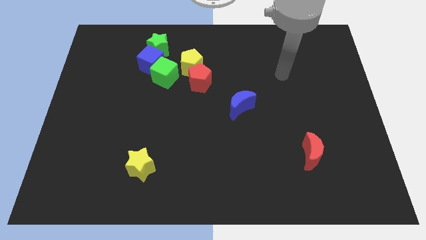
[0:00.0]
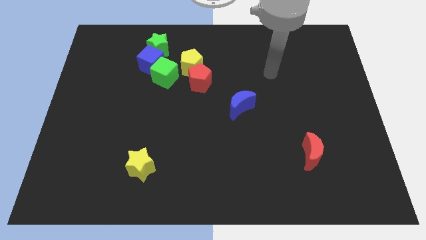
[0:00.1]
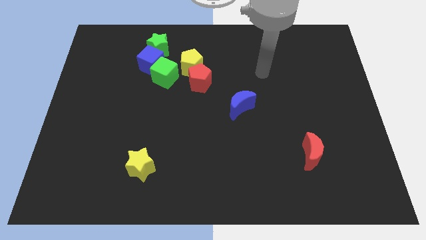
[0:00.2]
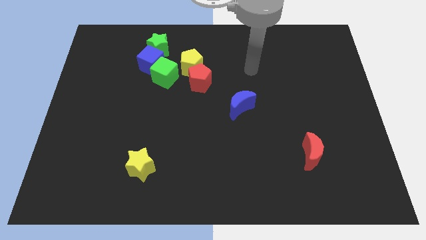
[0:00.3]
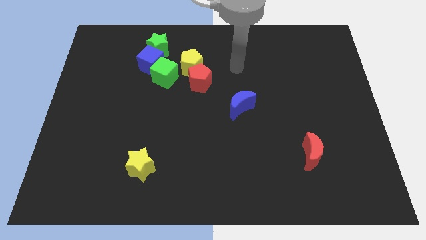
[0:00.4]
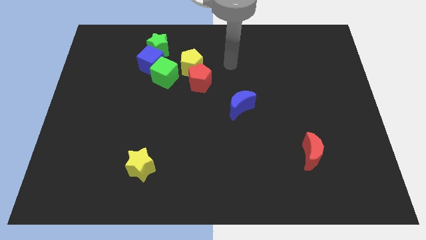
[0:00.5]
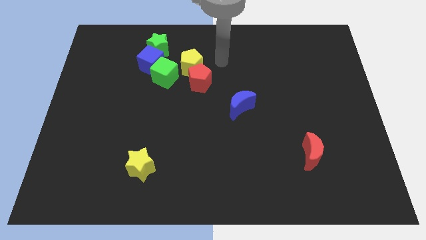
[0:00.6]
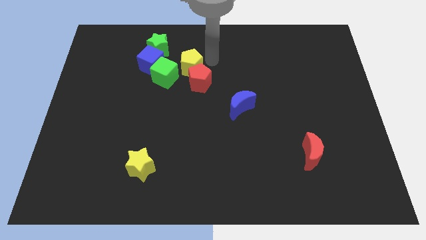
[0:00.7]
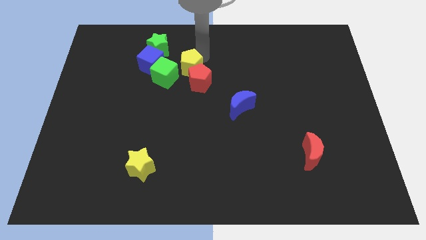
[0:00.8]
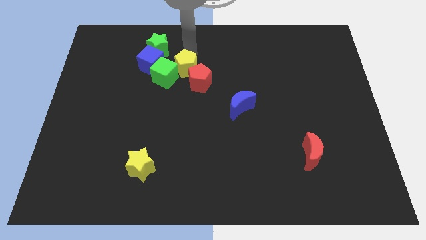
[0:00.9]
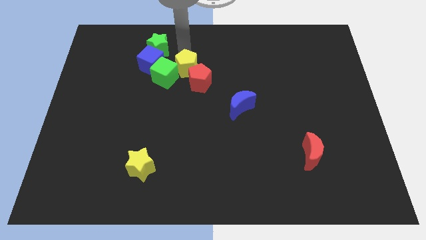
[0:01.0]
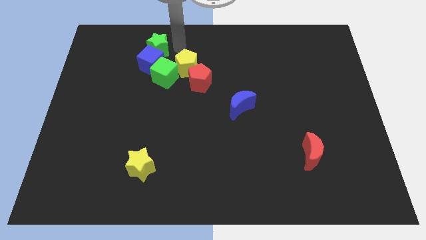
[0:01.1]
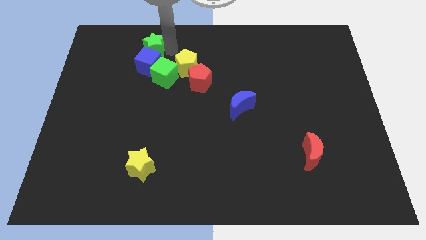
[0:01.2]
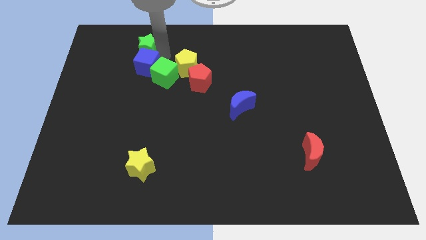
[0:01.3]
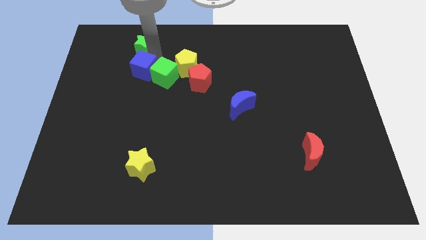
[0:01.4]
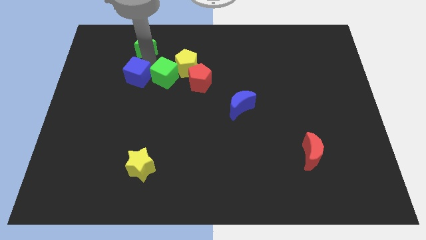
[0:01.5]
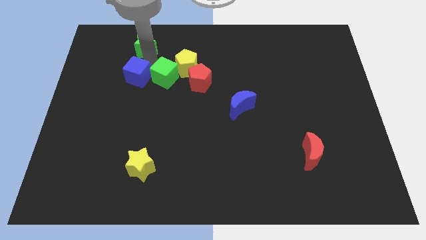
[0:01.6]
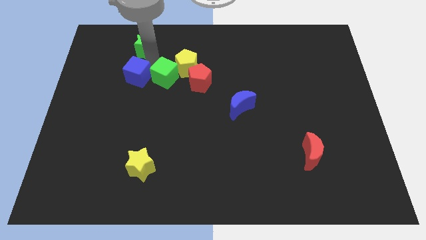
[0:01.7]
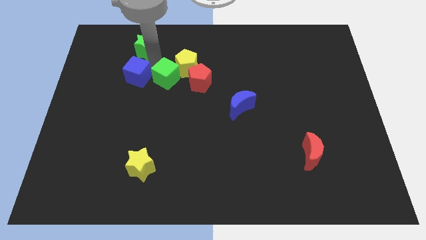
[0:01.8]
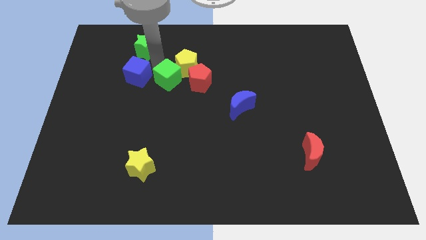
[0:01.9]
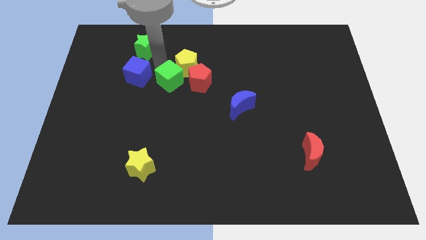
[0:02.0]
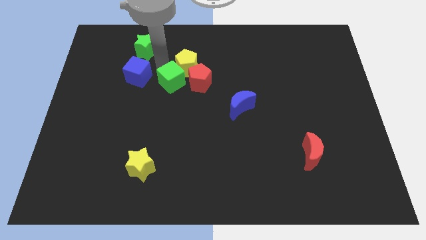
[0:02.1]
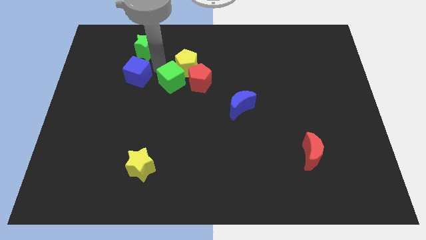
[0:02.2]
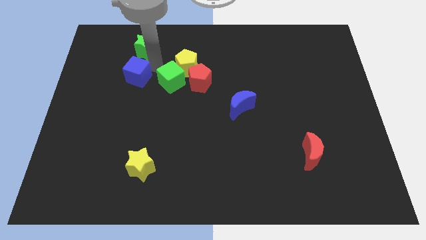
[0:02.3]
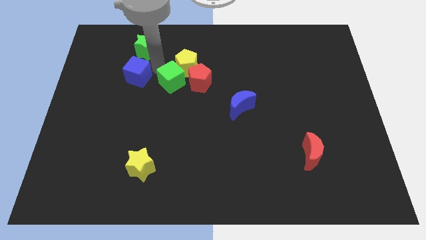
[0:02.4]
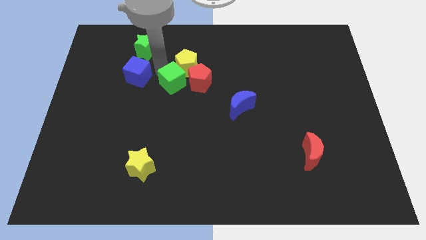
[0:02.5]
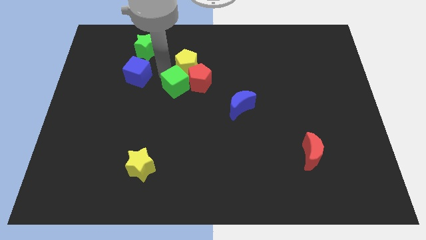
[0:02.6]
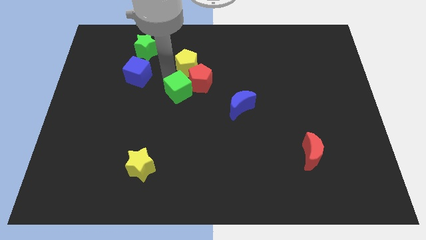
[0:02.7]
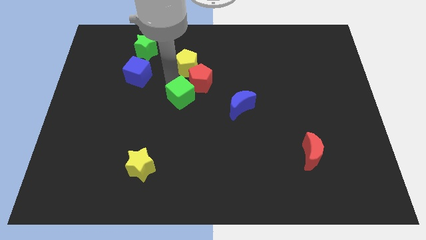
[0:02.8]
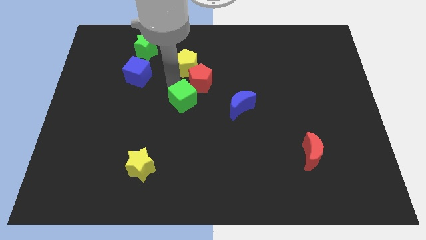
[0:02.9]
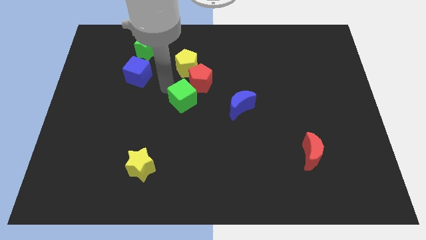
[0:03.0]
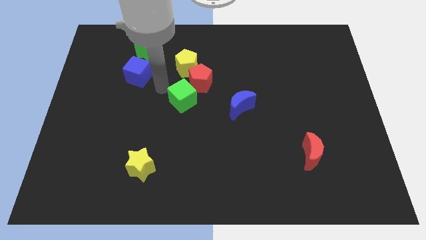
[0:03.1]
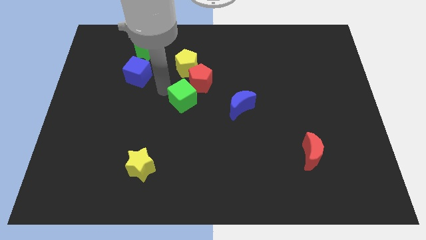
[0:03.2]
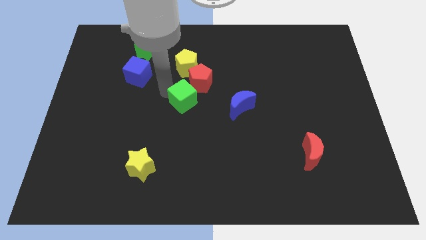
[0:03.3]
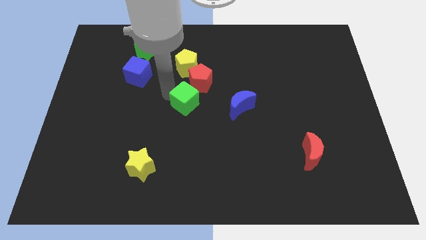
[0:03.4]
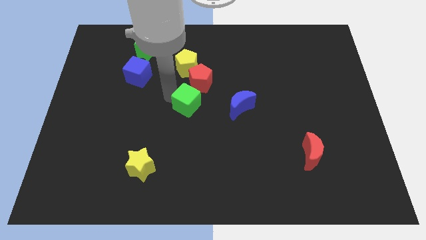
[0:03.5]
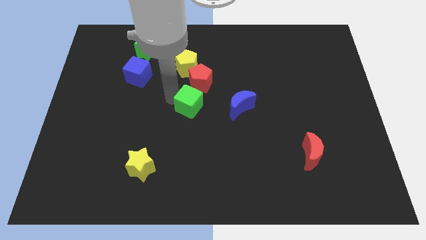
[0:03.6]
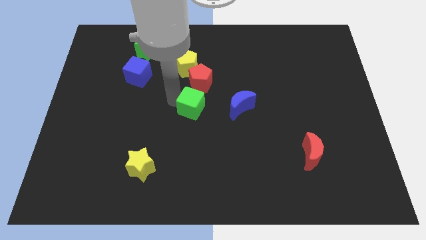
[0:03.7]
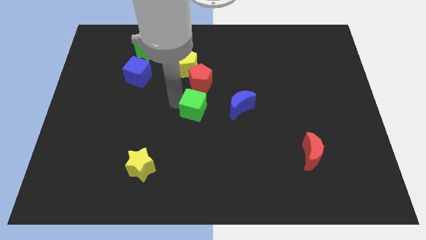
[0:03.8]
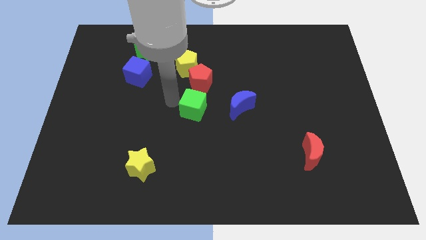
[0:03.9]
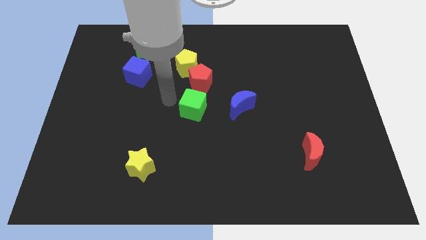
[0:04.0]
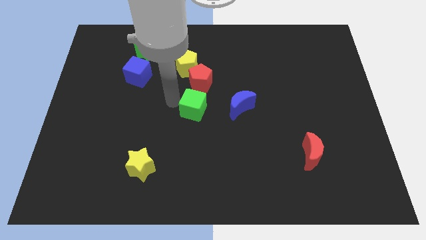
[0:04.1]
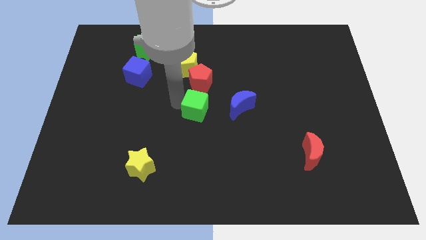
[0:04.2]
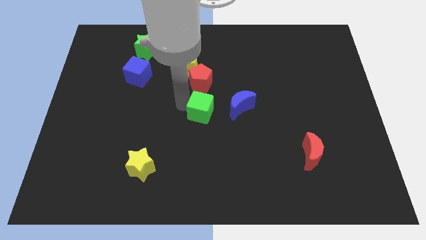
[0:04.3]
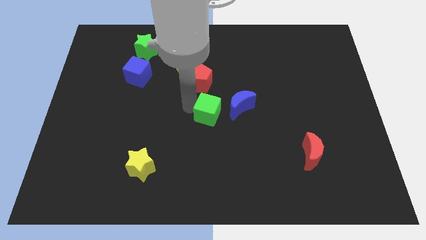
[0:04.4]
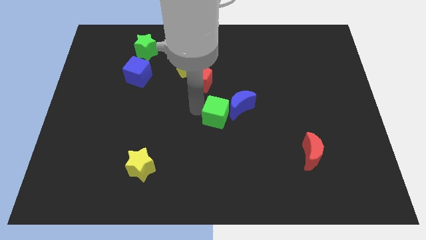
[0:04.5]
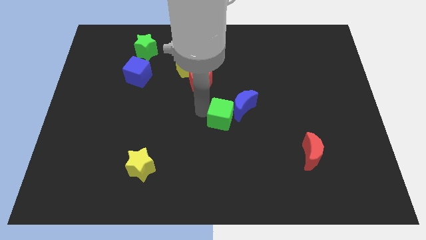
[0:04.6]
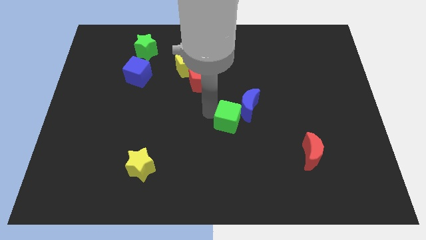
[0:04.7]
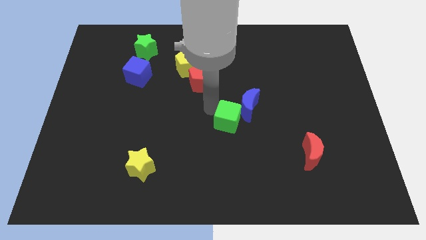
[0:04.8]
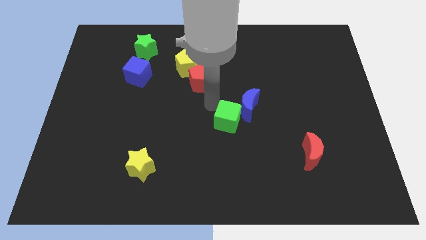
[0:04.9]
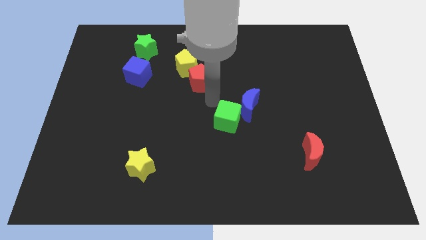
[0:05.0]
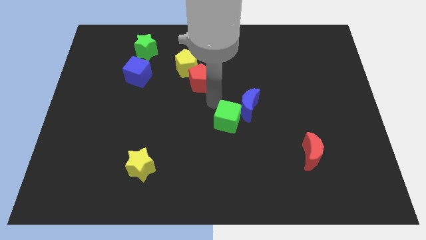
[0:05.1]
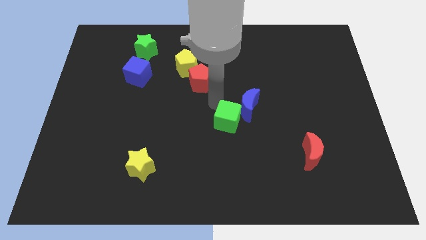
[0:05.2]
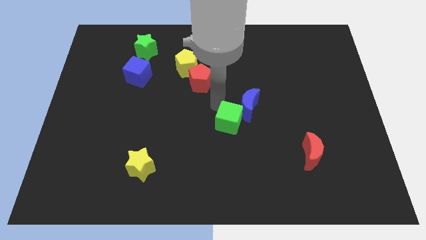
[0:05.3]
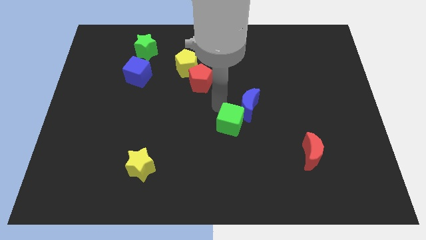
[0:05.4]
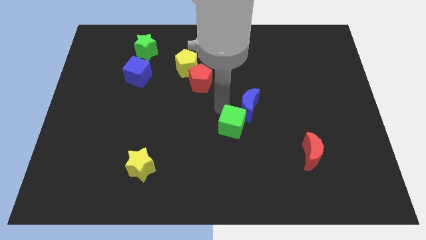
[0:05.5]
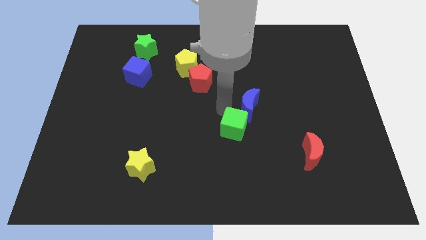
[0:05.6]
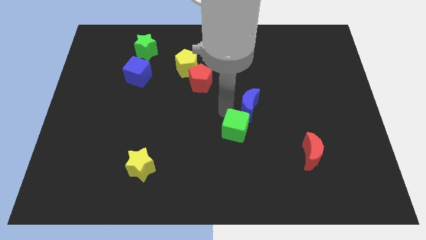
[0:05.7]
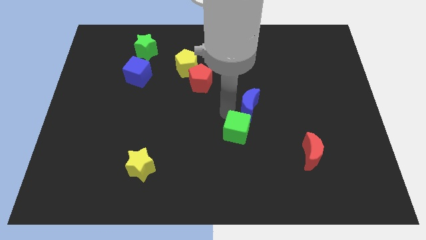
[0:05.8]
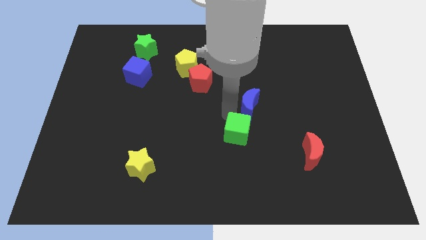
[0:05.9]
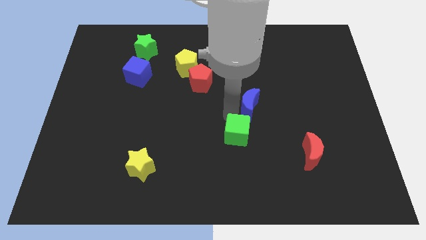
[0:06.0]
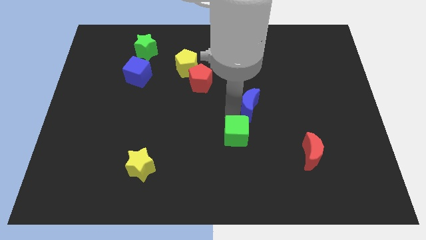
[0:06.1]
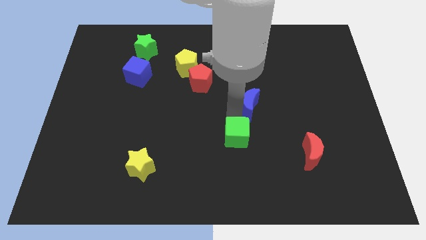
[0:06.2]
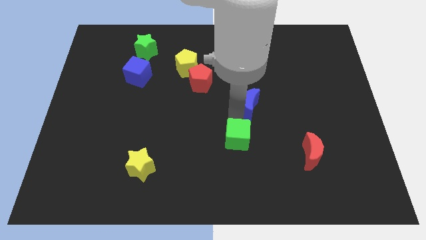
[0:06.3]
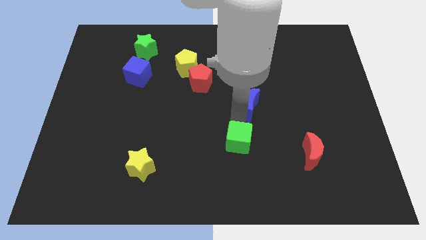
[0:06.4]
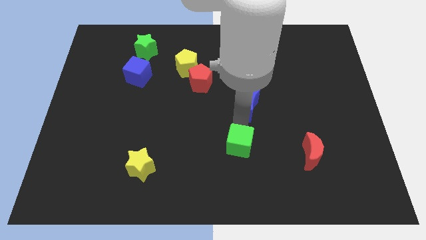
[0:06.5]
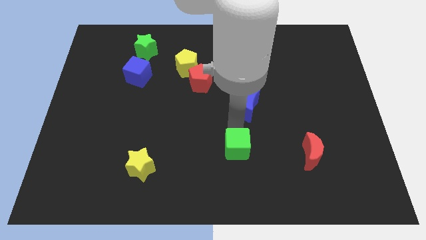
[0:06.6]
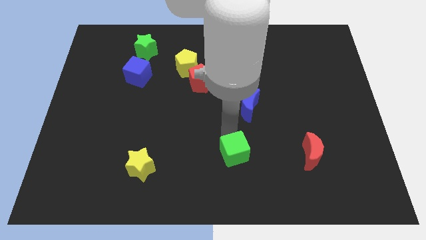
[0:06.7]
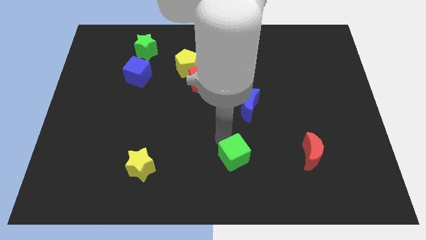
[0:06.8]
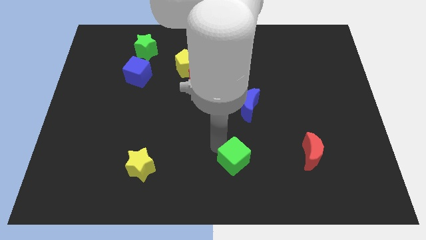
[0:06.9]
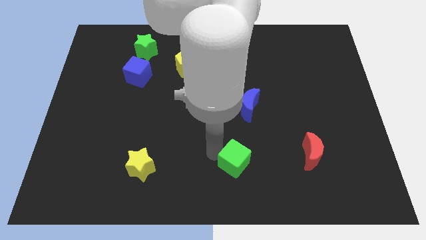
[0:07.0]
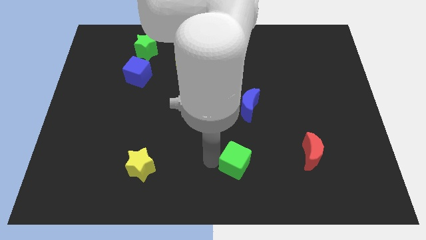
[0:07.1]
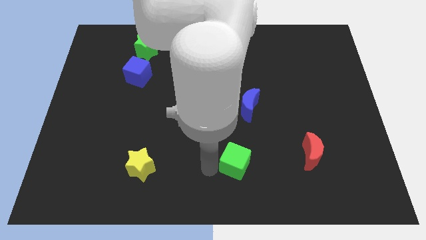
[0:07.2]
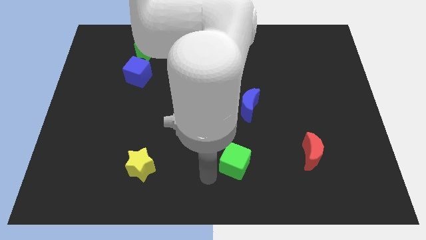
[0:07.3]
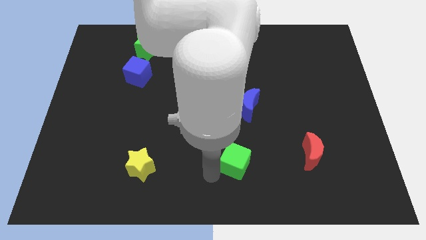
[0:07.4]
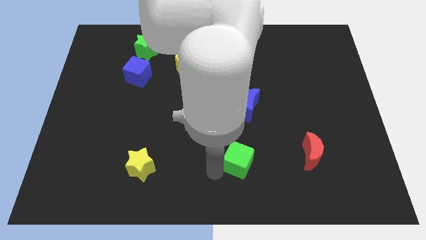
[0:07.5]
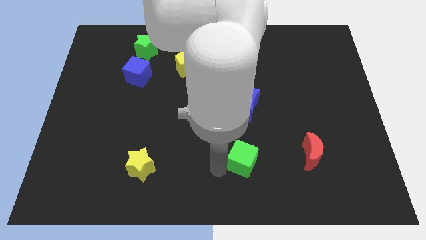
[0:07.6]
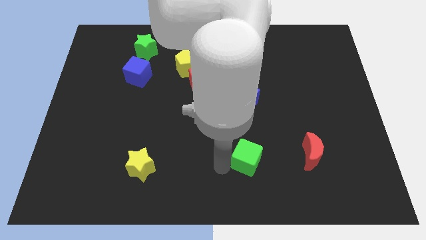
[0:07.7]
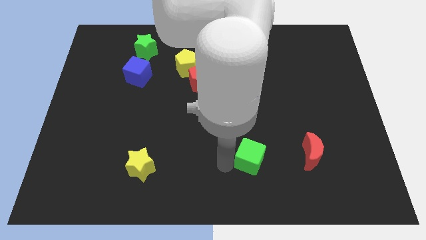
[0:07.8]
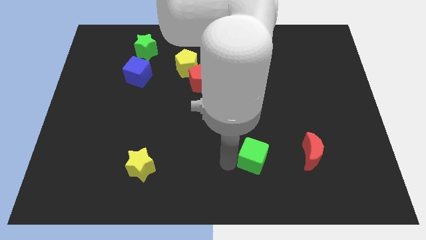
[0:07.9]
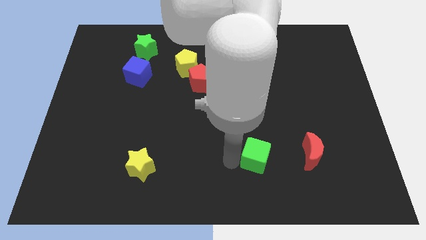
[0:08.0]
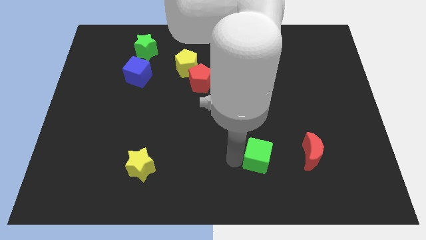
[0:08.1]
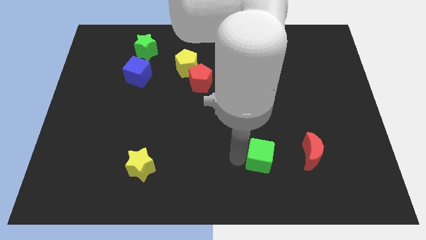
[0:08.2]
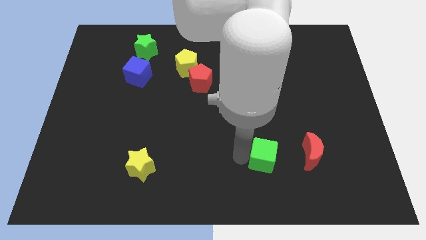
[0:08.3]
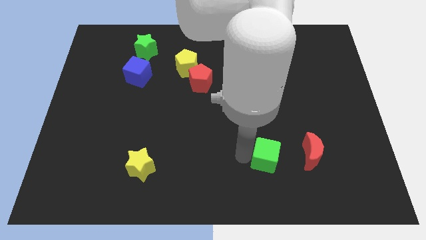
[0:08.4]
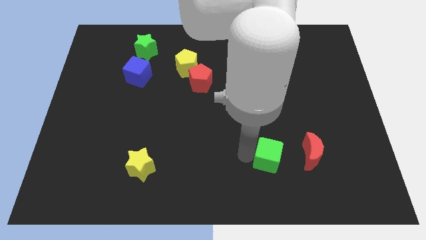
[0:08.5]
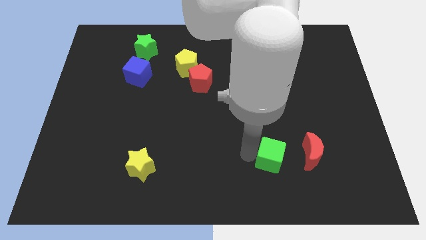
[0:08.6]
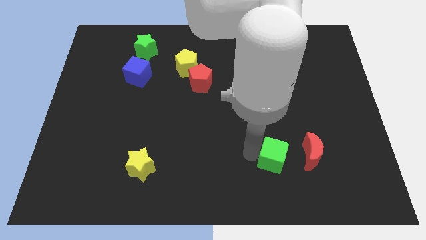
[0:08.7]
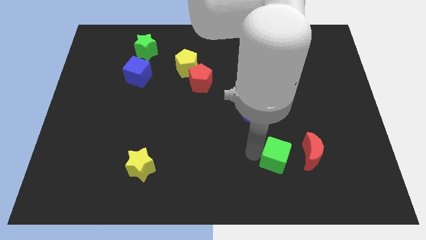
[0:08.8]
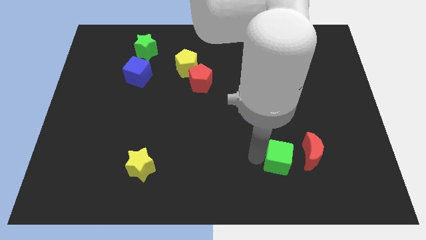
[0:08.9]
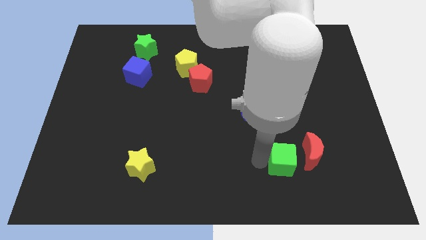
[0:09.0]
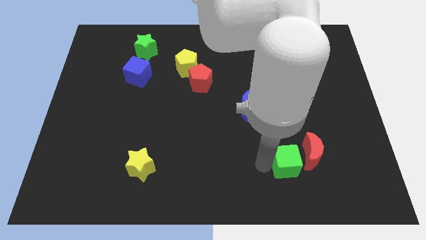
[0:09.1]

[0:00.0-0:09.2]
push the green cube next to the red moon
